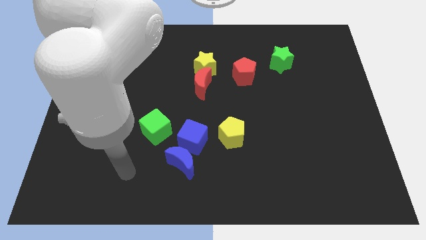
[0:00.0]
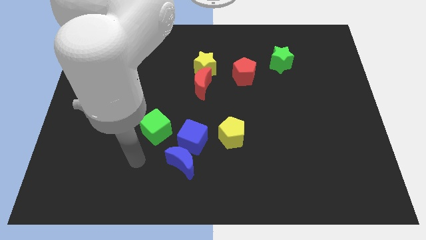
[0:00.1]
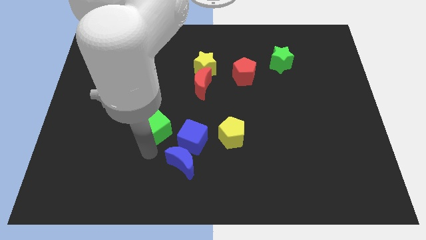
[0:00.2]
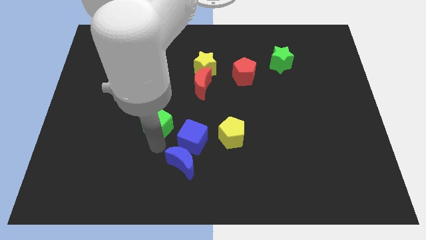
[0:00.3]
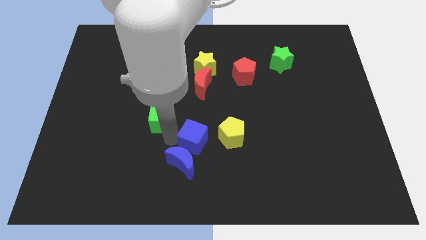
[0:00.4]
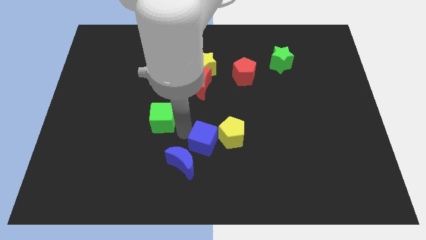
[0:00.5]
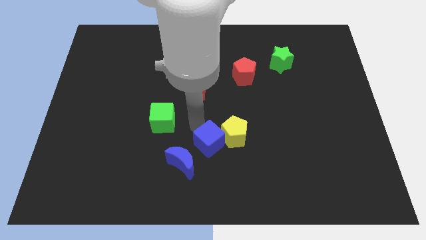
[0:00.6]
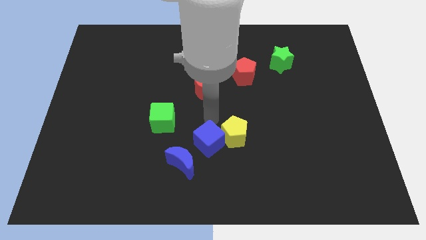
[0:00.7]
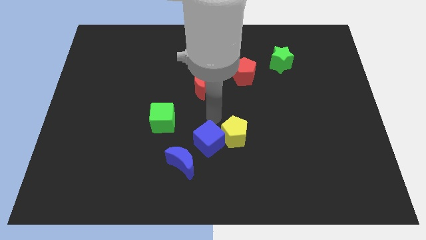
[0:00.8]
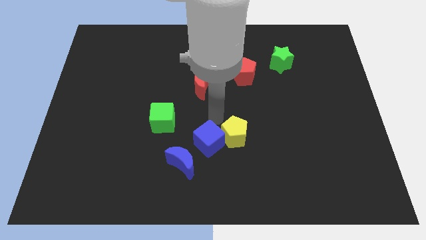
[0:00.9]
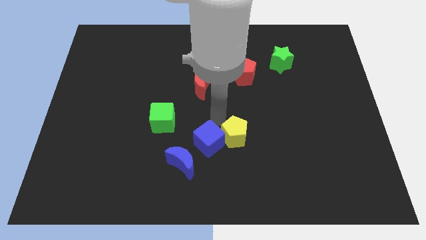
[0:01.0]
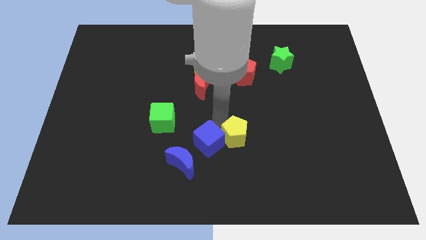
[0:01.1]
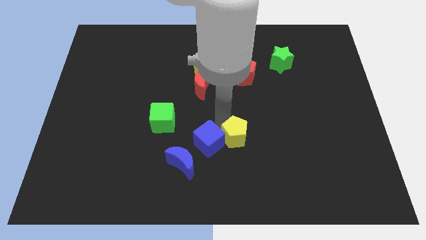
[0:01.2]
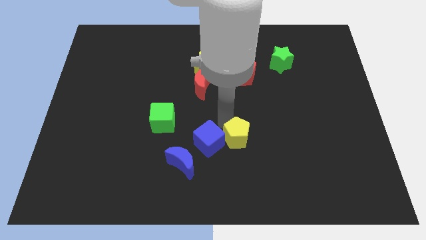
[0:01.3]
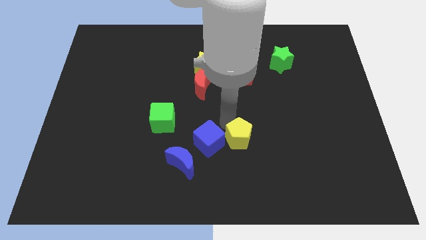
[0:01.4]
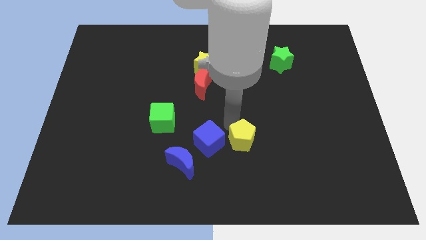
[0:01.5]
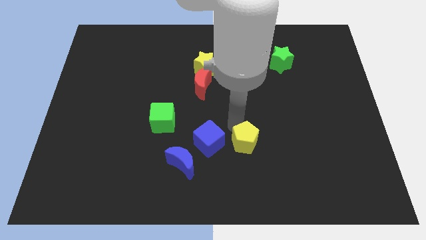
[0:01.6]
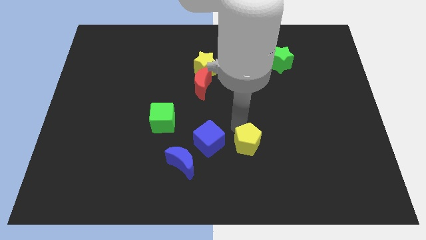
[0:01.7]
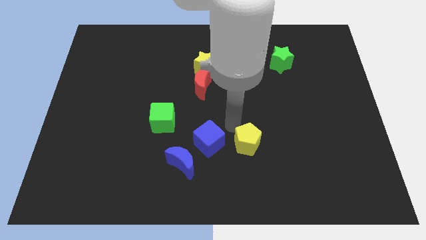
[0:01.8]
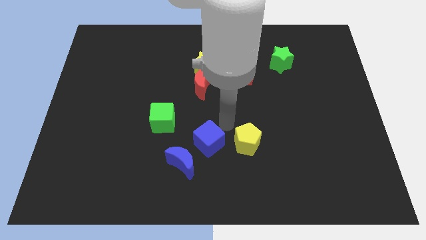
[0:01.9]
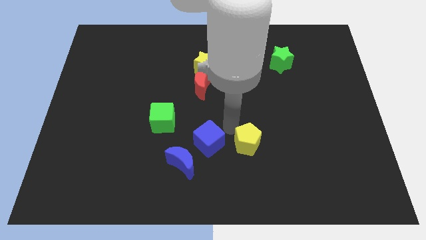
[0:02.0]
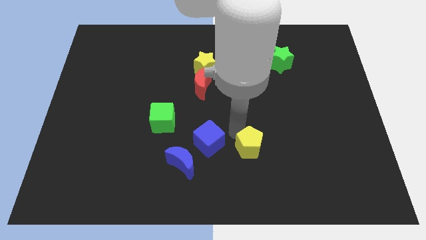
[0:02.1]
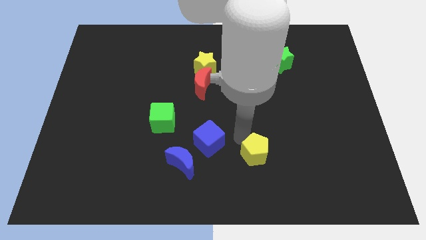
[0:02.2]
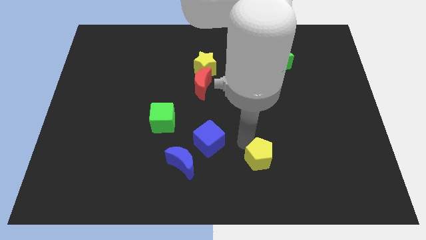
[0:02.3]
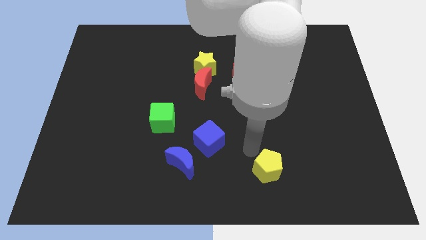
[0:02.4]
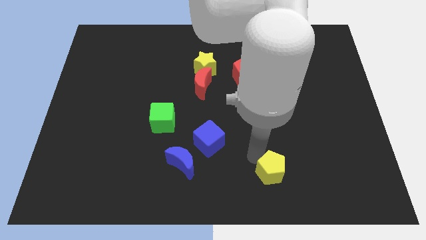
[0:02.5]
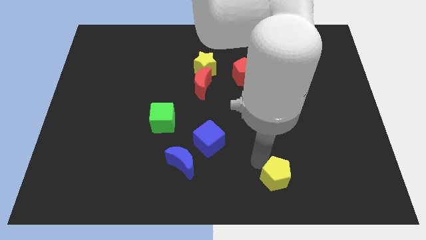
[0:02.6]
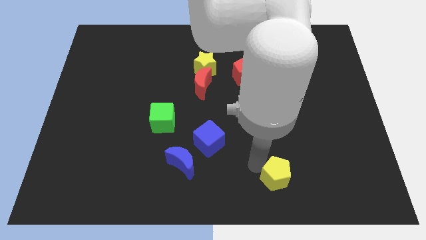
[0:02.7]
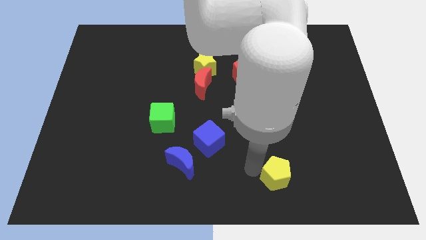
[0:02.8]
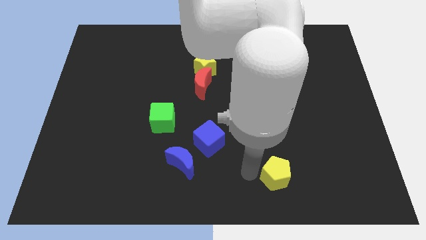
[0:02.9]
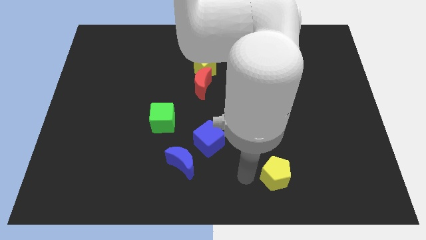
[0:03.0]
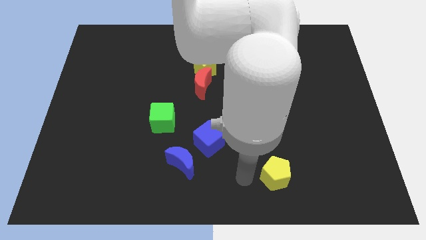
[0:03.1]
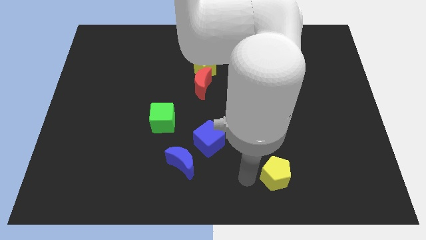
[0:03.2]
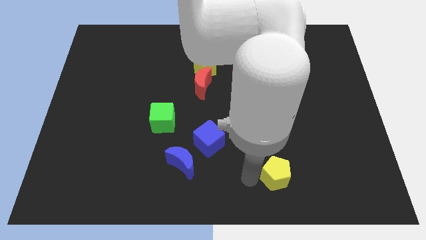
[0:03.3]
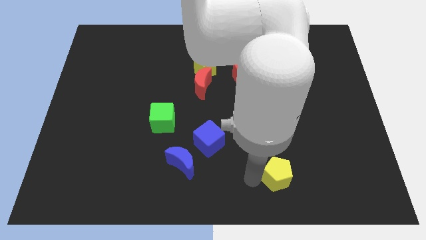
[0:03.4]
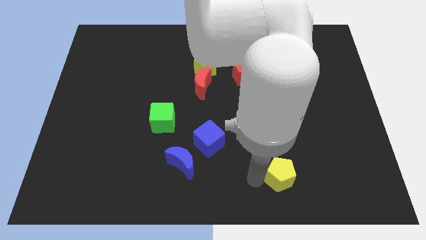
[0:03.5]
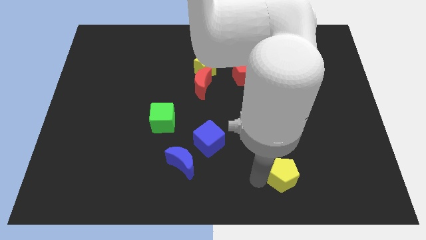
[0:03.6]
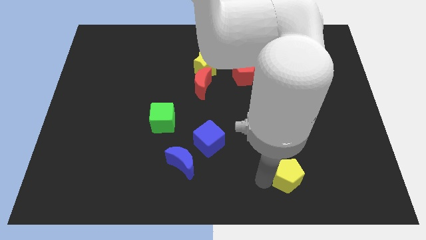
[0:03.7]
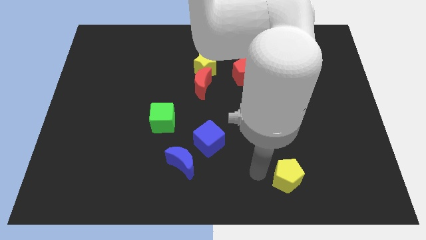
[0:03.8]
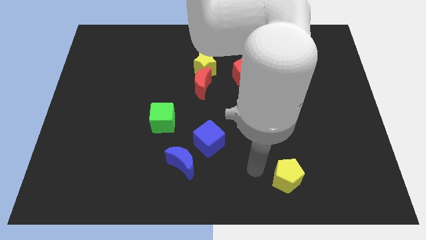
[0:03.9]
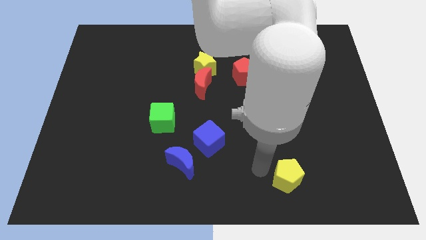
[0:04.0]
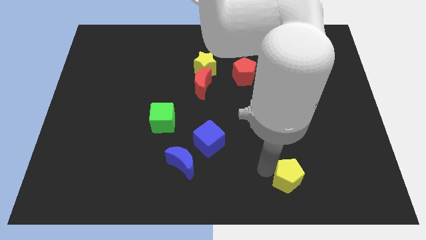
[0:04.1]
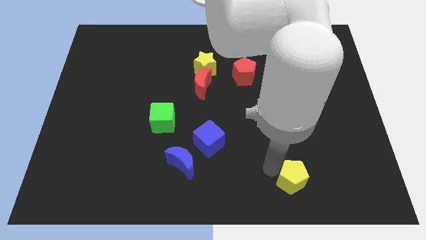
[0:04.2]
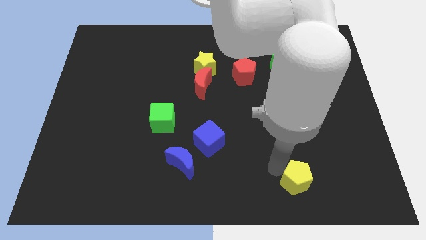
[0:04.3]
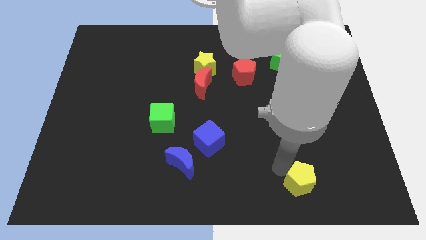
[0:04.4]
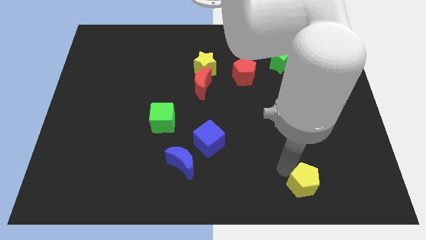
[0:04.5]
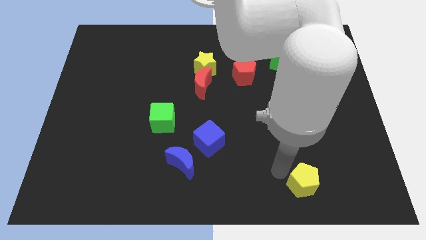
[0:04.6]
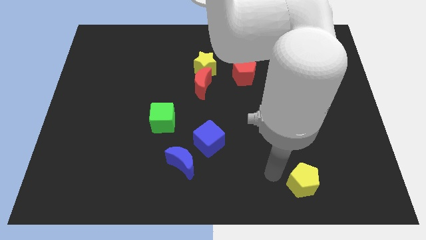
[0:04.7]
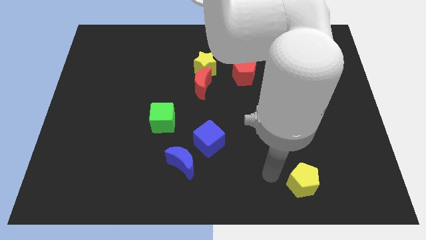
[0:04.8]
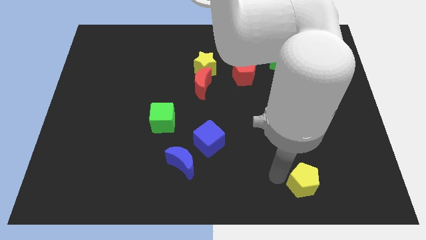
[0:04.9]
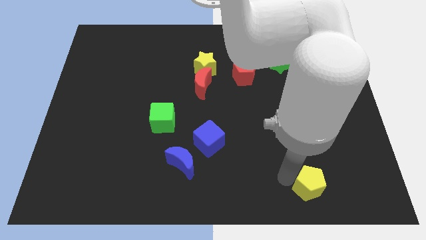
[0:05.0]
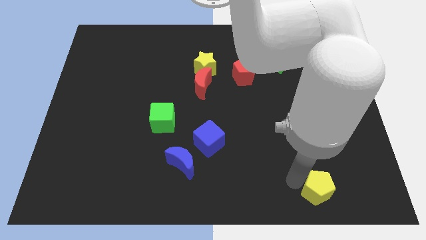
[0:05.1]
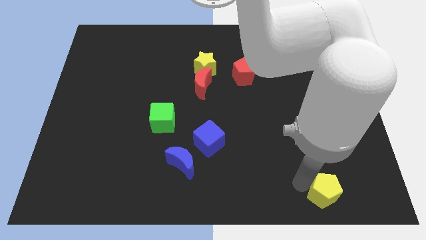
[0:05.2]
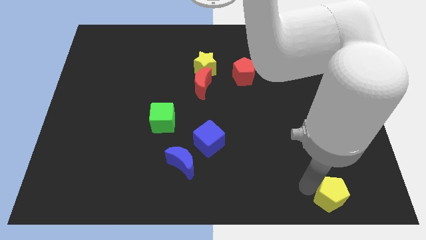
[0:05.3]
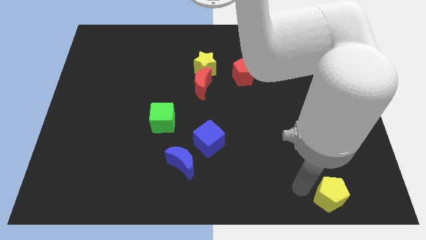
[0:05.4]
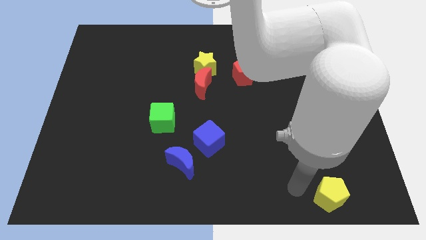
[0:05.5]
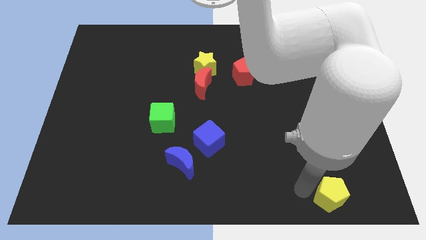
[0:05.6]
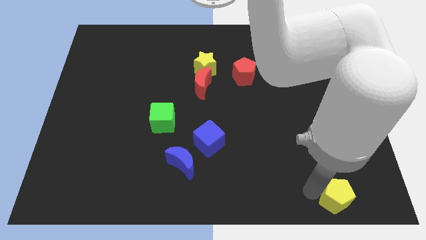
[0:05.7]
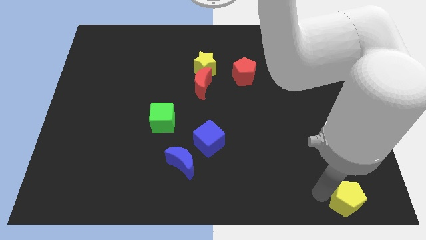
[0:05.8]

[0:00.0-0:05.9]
move the yellow pentagon to the lower right corner
